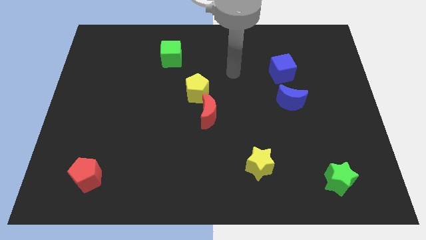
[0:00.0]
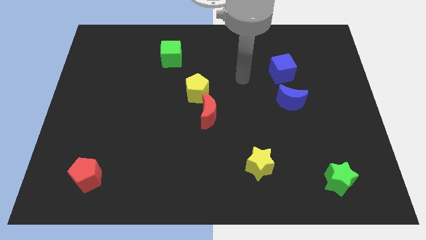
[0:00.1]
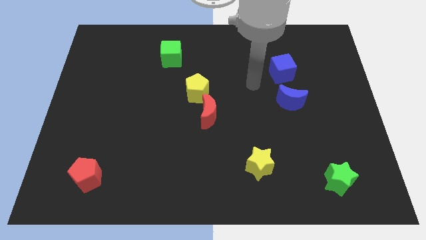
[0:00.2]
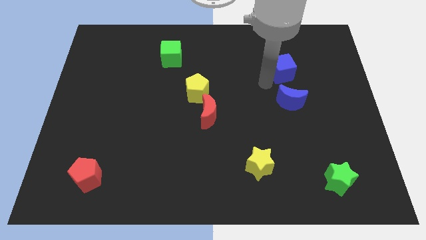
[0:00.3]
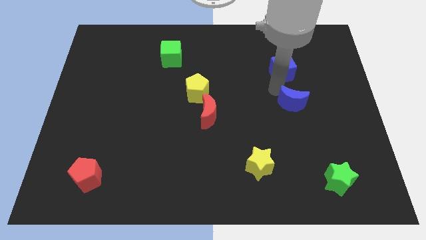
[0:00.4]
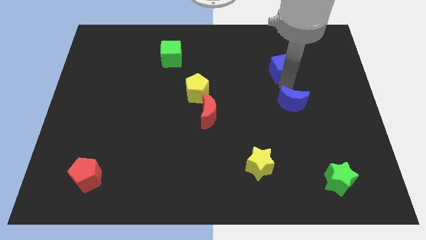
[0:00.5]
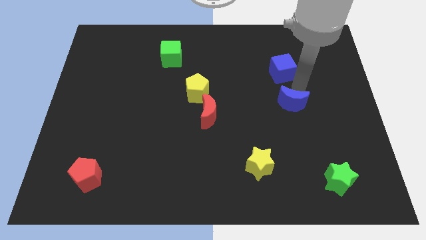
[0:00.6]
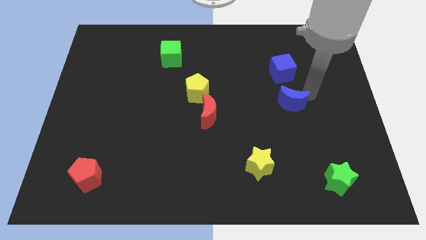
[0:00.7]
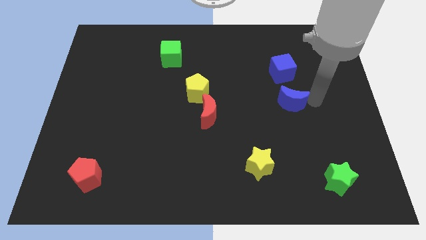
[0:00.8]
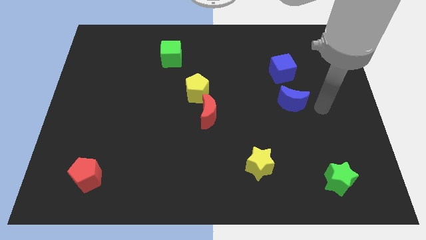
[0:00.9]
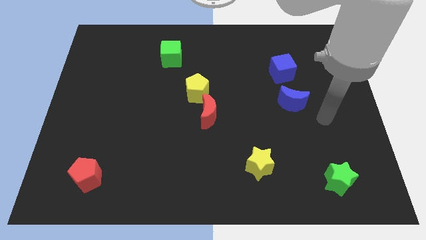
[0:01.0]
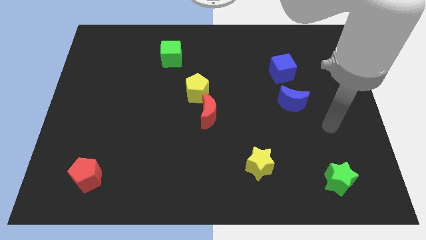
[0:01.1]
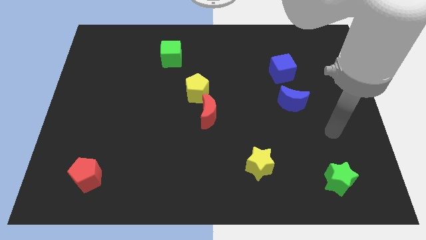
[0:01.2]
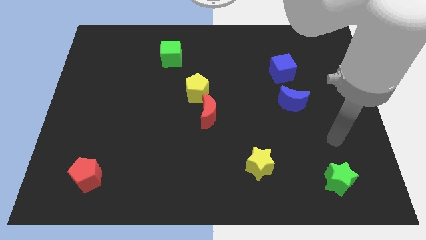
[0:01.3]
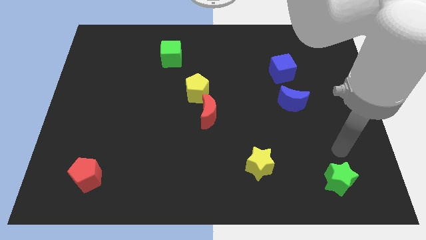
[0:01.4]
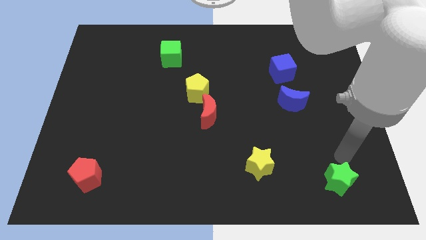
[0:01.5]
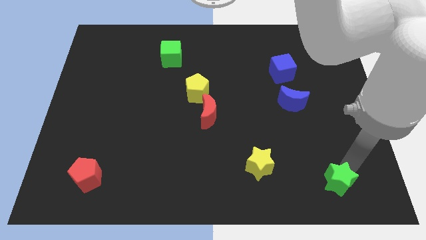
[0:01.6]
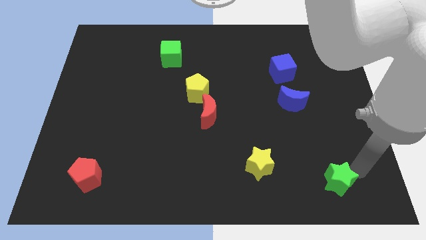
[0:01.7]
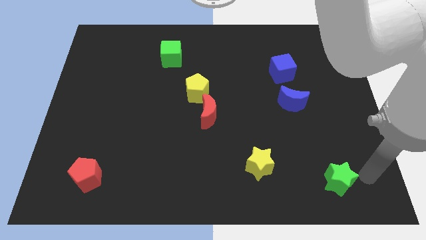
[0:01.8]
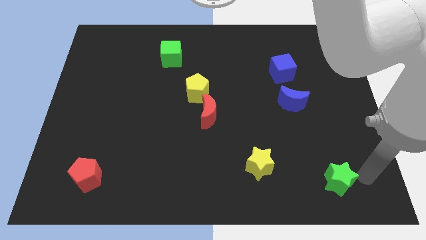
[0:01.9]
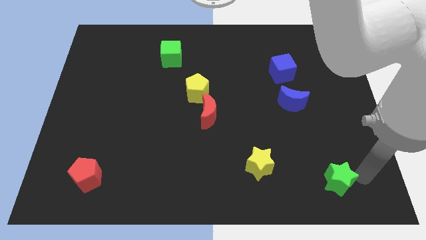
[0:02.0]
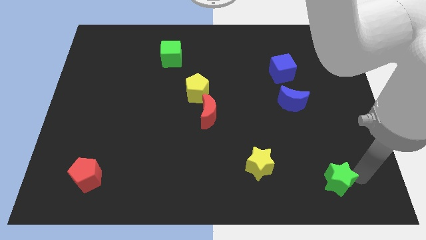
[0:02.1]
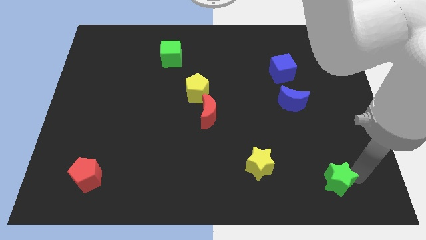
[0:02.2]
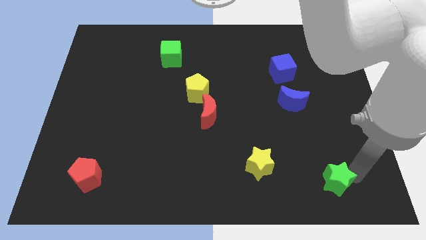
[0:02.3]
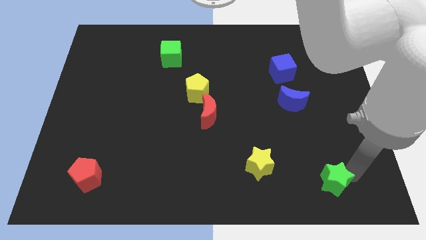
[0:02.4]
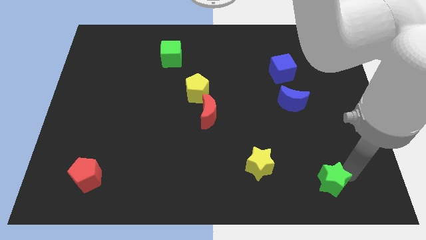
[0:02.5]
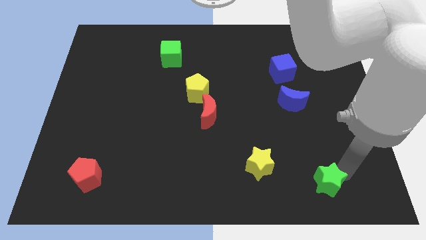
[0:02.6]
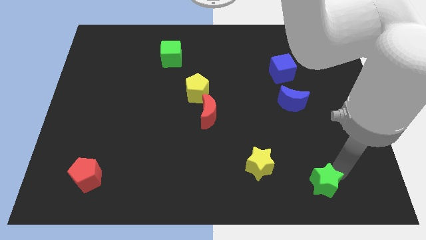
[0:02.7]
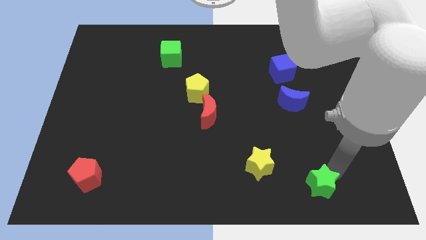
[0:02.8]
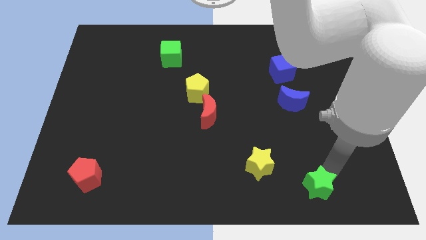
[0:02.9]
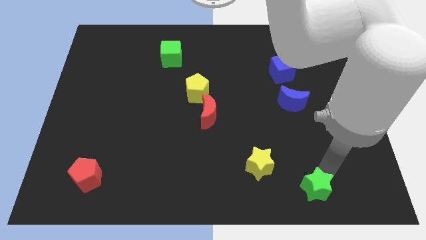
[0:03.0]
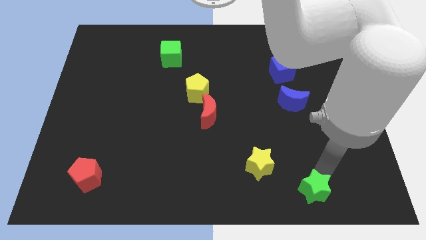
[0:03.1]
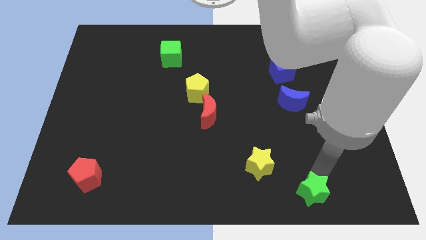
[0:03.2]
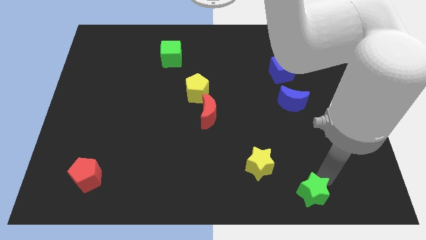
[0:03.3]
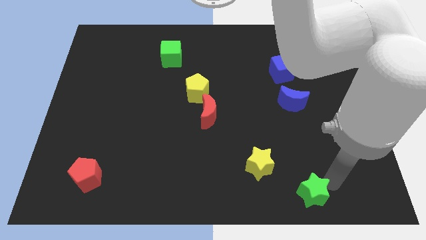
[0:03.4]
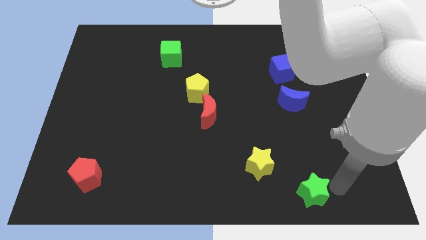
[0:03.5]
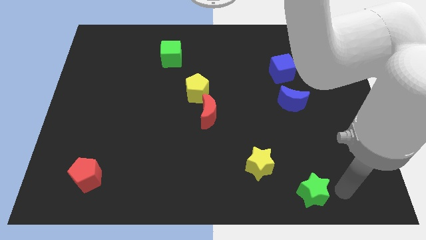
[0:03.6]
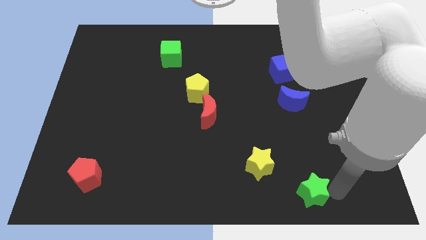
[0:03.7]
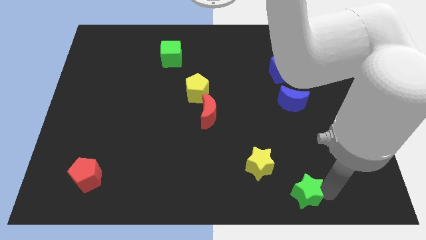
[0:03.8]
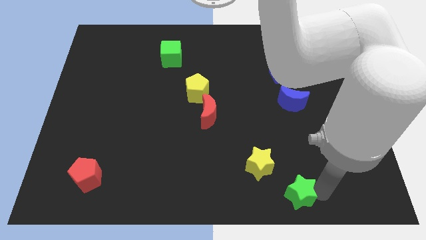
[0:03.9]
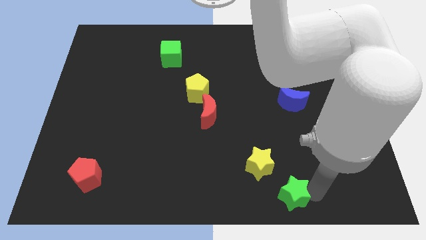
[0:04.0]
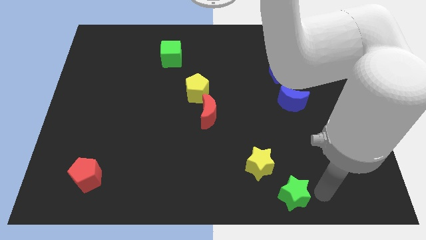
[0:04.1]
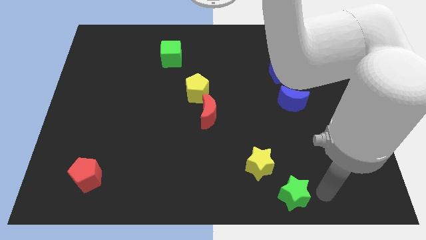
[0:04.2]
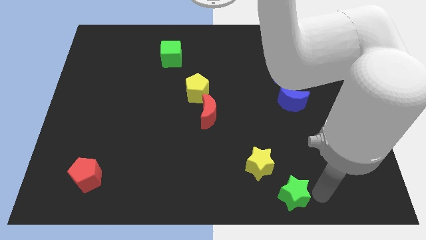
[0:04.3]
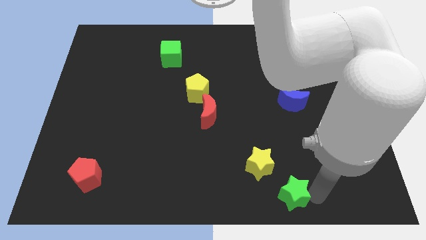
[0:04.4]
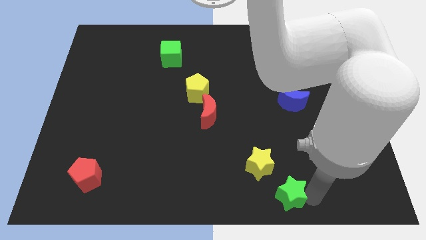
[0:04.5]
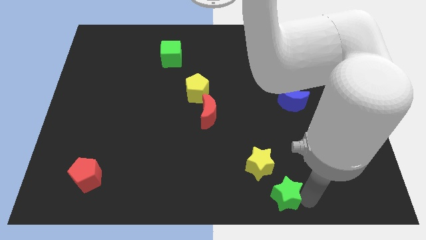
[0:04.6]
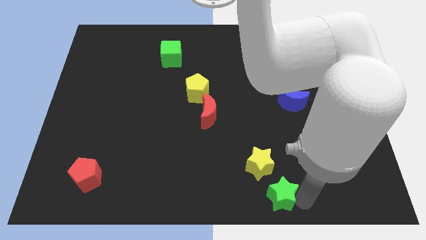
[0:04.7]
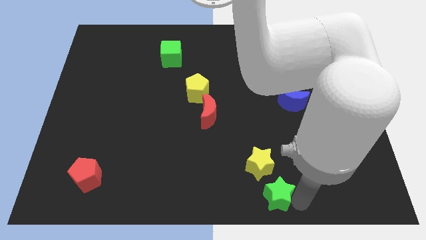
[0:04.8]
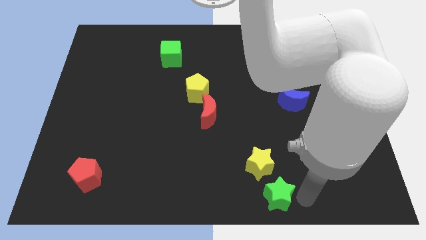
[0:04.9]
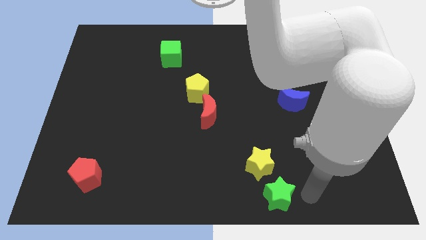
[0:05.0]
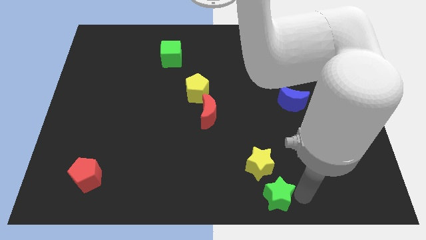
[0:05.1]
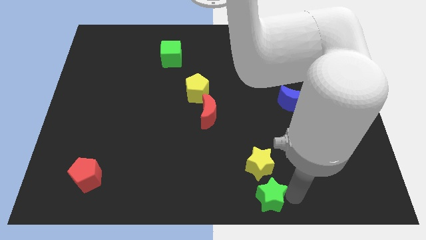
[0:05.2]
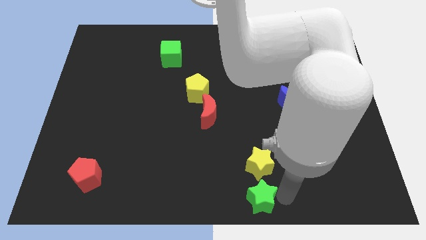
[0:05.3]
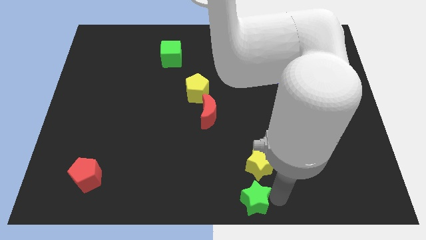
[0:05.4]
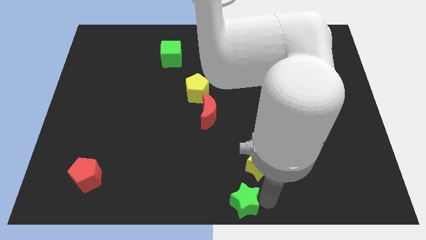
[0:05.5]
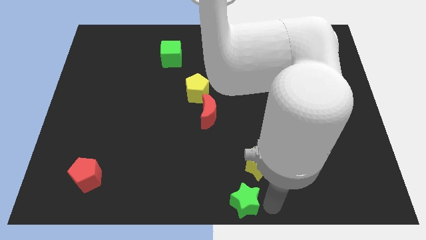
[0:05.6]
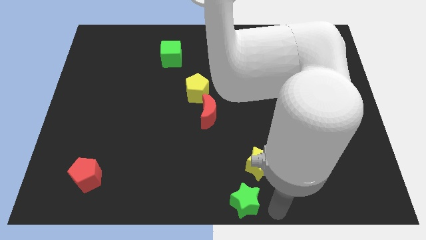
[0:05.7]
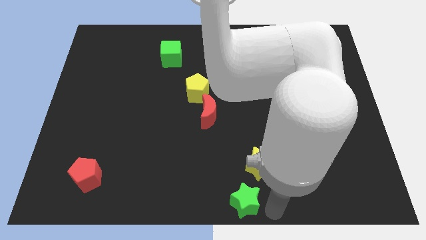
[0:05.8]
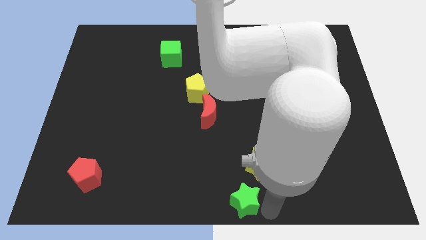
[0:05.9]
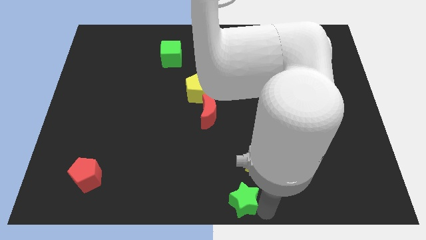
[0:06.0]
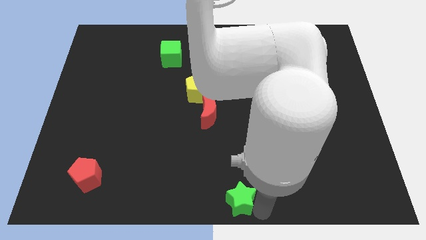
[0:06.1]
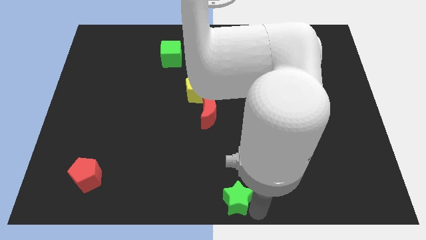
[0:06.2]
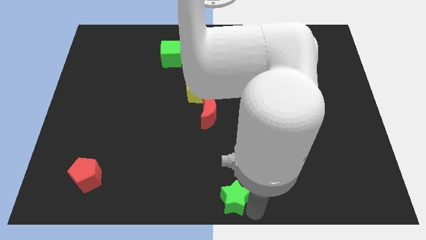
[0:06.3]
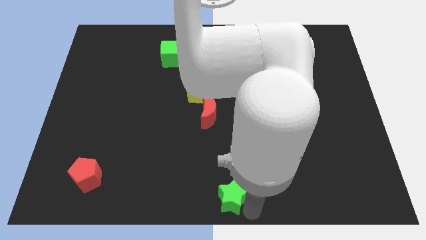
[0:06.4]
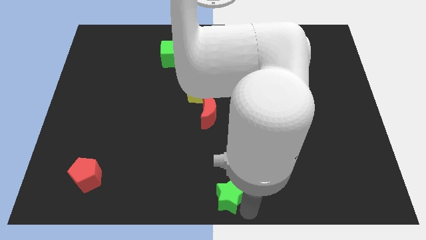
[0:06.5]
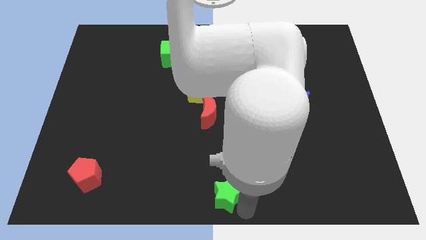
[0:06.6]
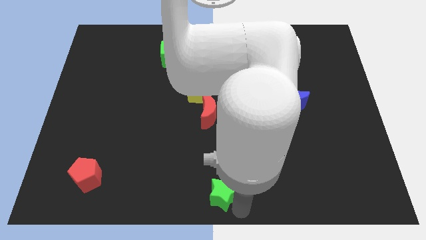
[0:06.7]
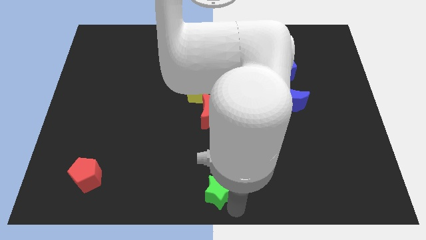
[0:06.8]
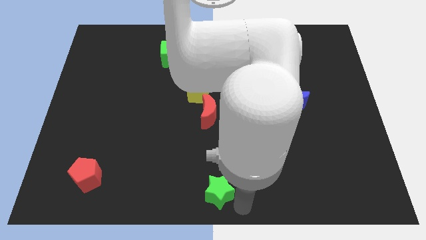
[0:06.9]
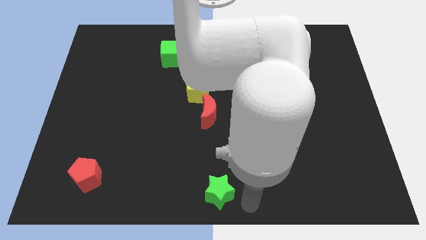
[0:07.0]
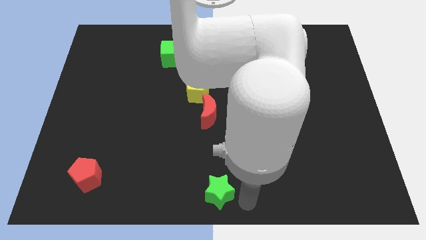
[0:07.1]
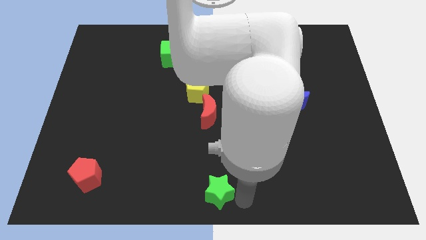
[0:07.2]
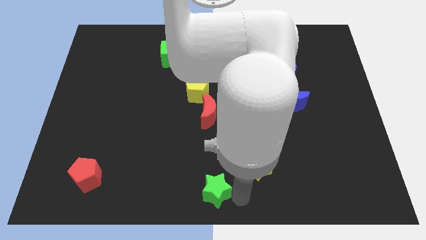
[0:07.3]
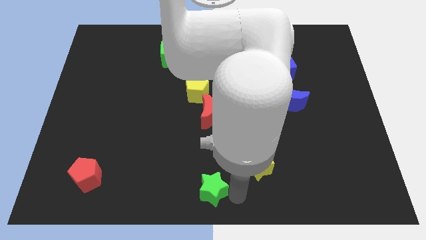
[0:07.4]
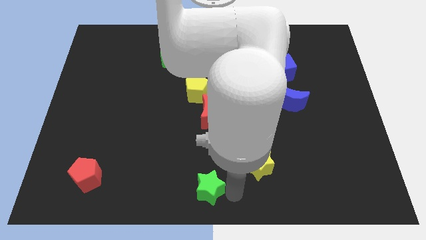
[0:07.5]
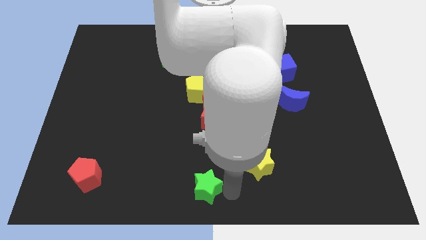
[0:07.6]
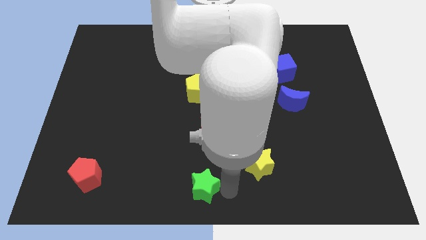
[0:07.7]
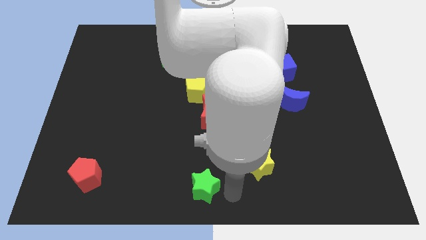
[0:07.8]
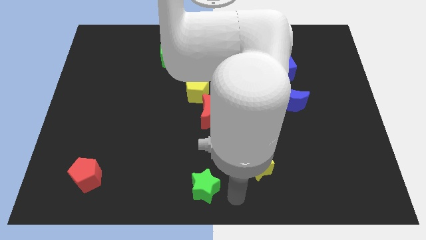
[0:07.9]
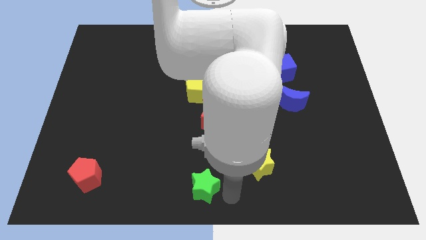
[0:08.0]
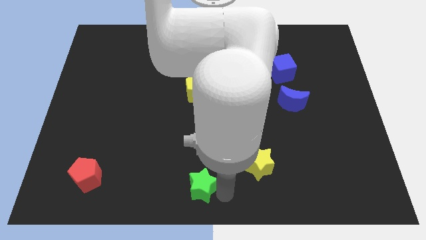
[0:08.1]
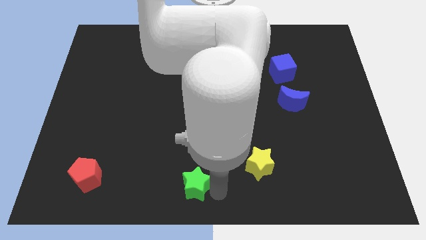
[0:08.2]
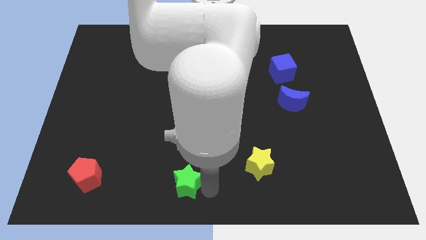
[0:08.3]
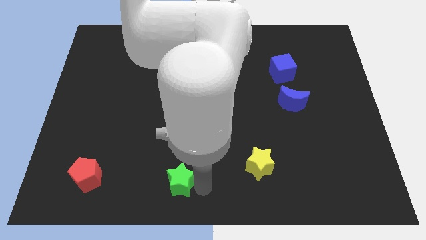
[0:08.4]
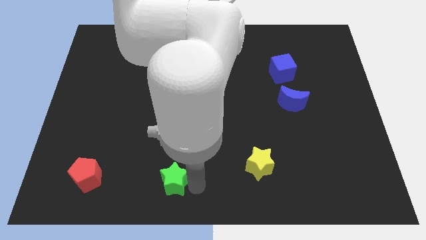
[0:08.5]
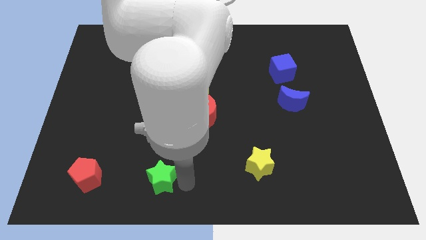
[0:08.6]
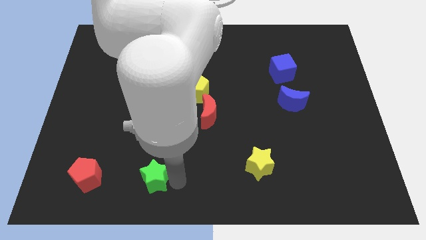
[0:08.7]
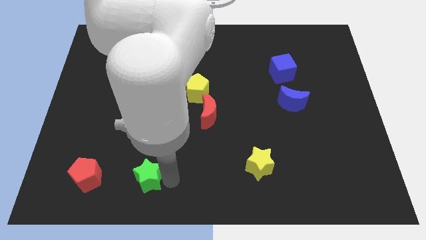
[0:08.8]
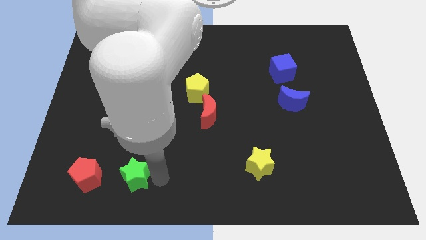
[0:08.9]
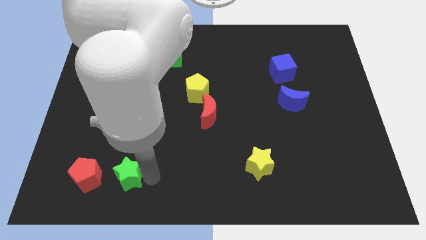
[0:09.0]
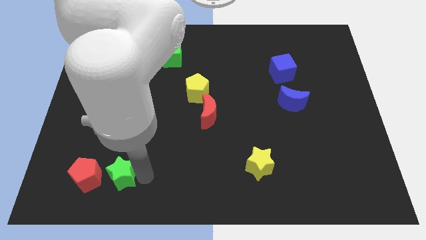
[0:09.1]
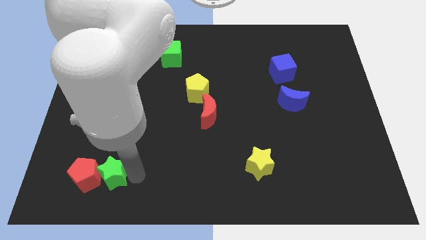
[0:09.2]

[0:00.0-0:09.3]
put the green star towards the red pentagon
